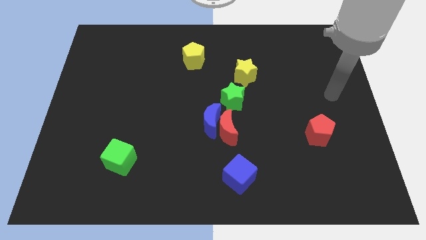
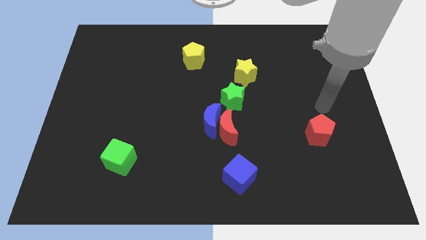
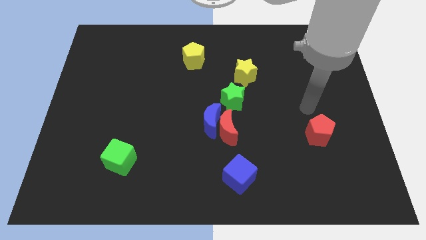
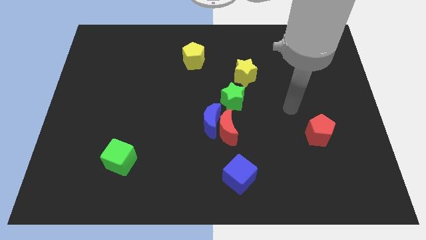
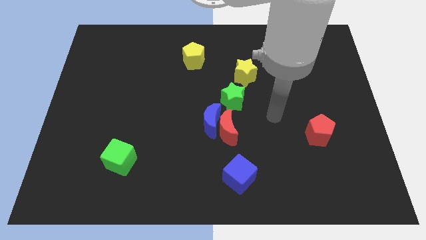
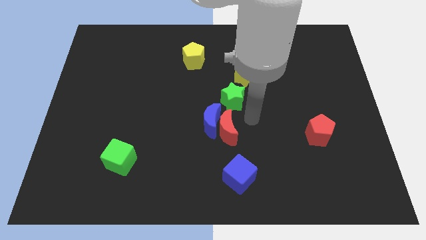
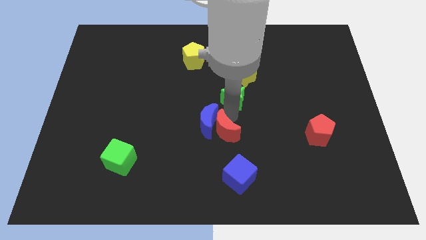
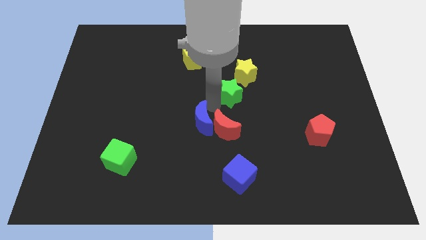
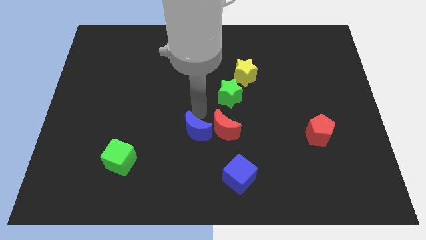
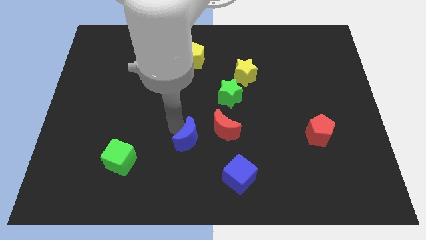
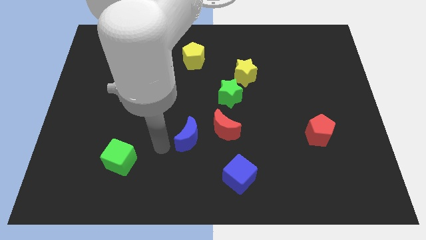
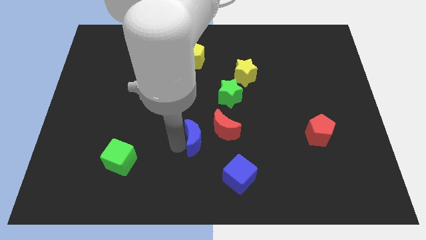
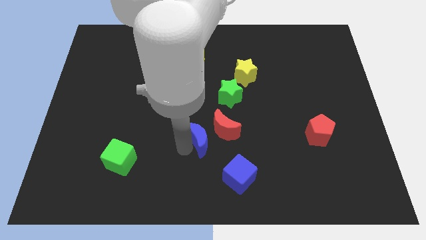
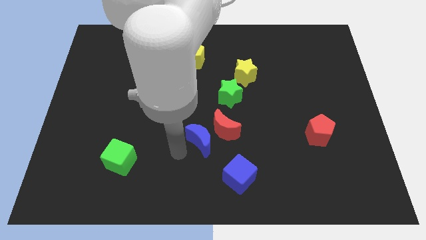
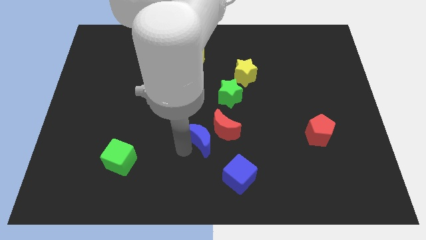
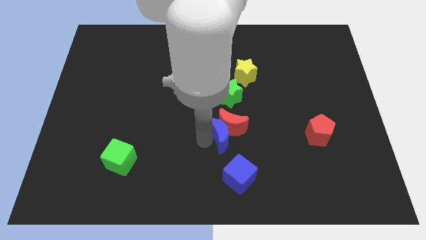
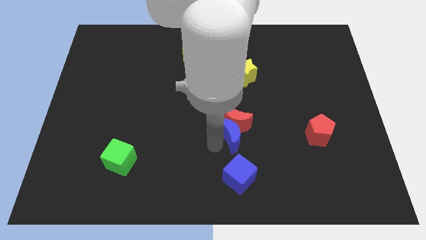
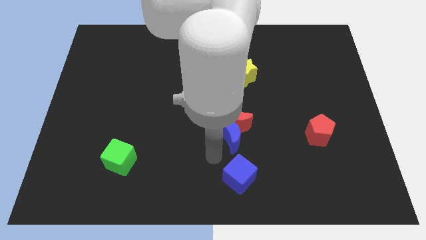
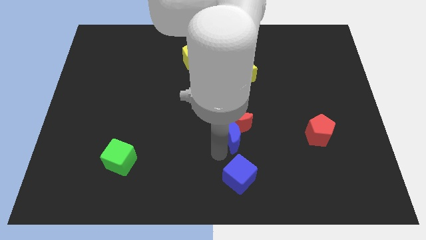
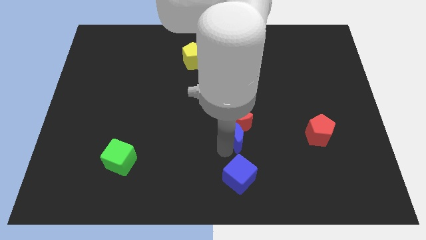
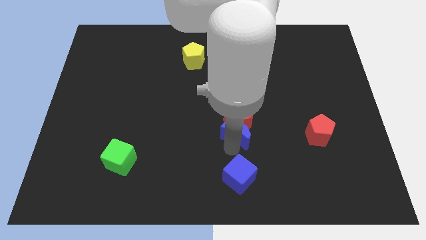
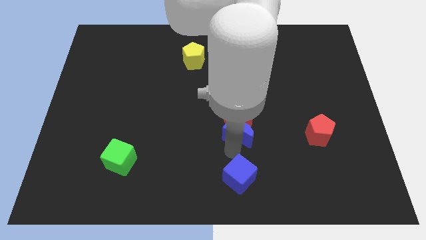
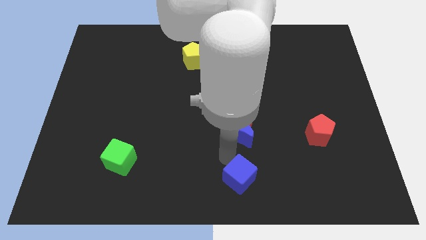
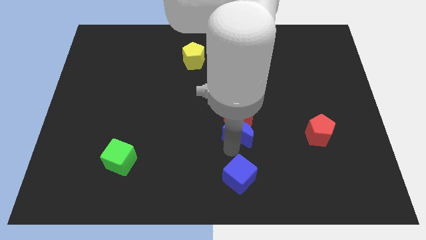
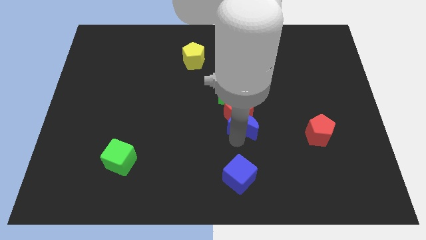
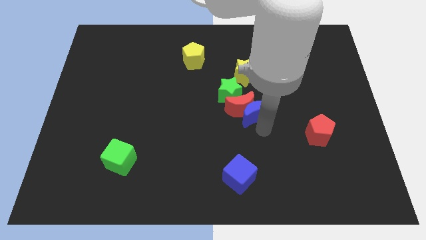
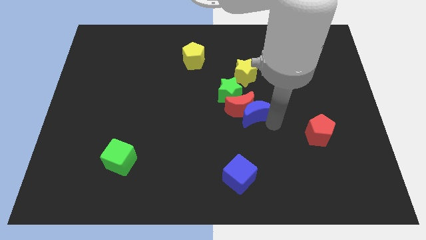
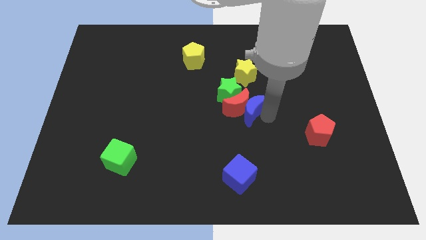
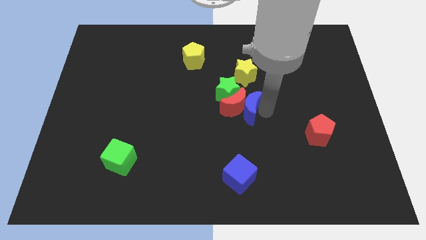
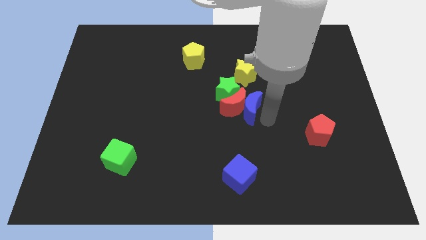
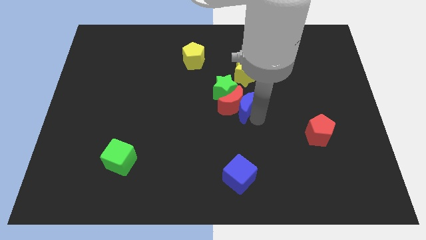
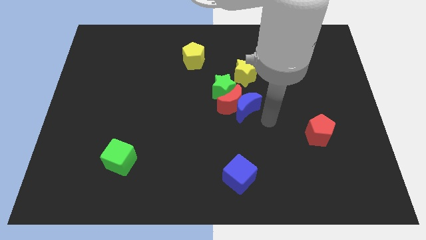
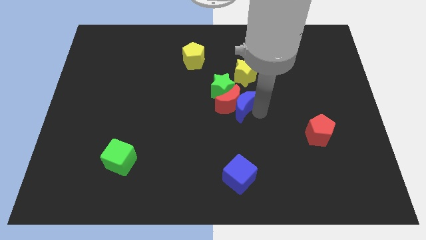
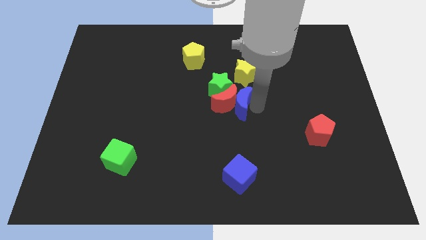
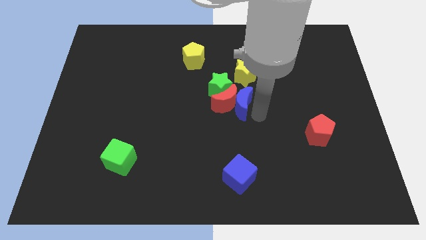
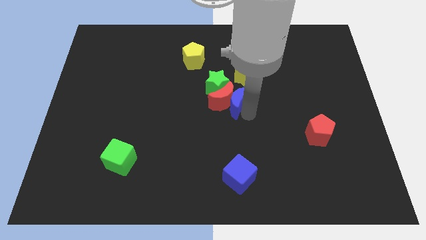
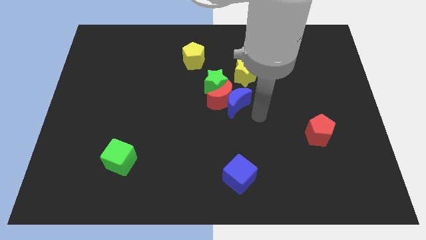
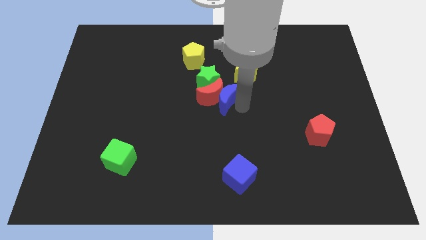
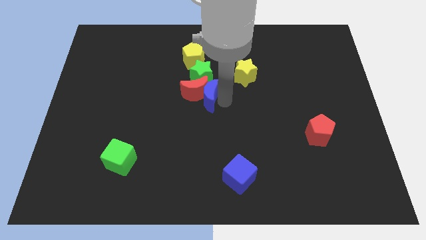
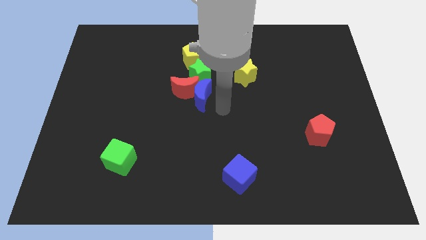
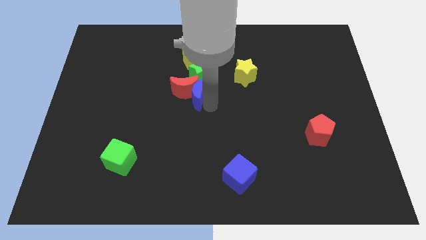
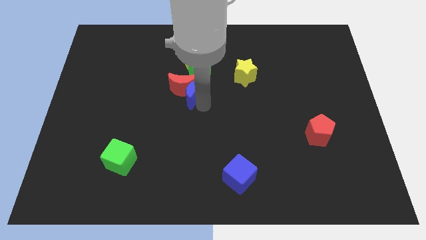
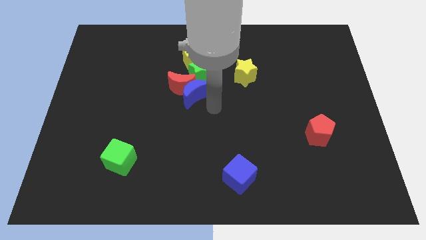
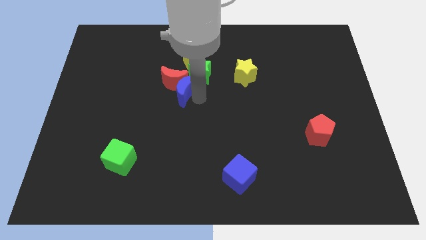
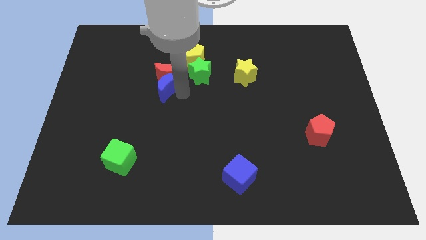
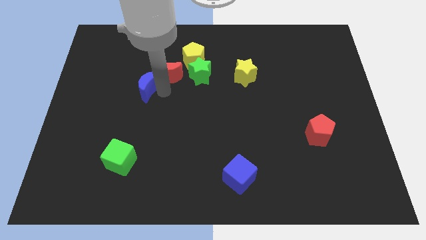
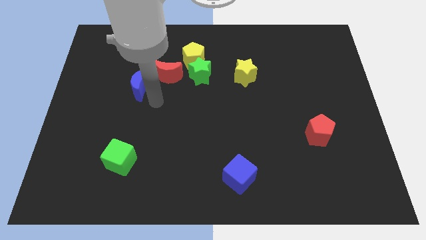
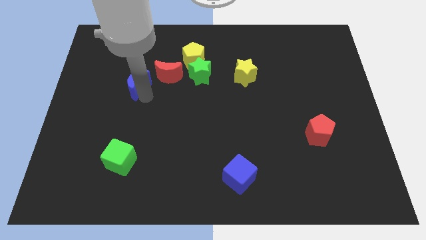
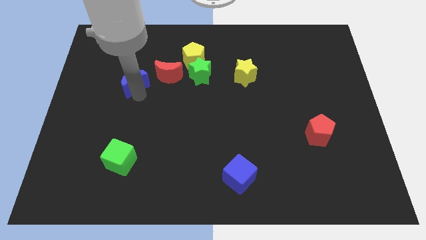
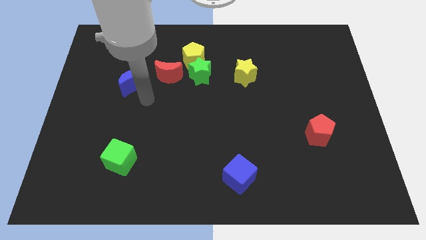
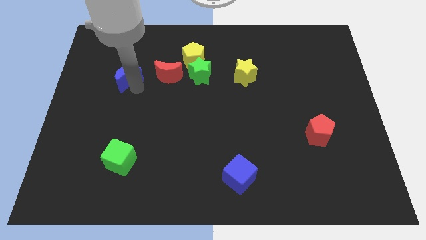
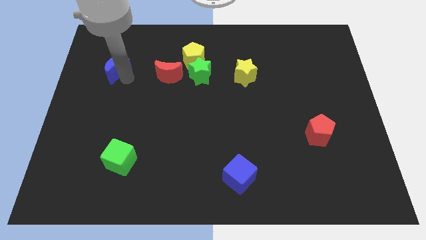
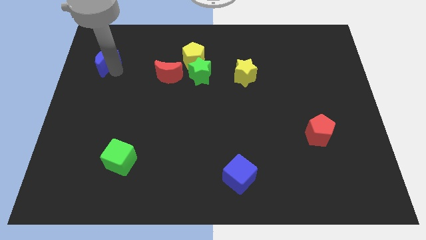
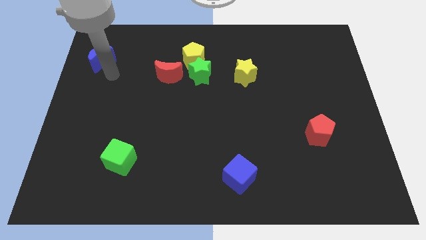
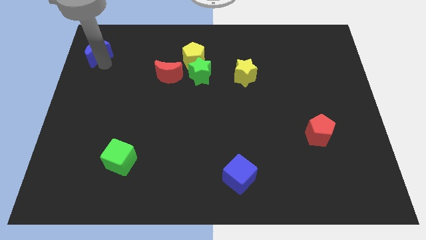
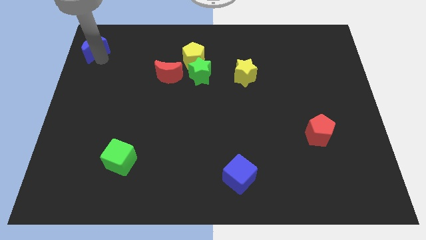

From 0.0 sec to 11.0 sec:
move the blue moon to the upper left corner

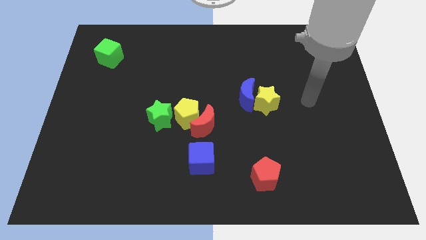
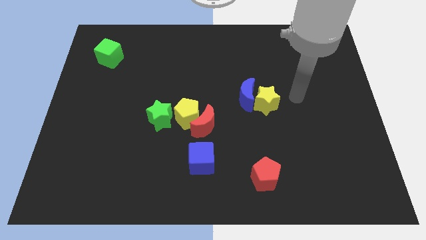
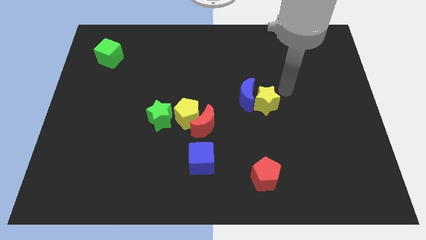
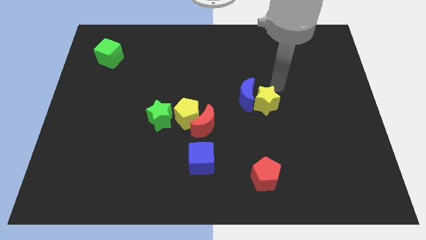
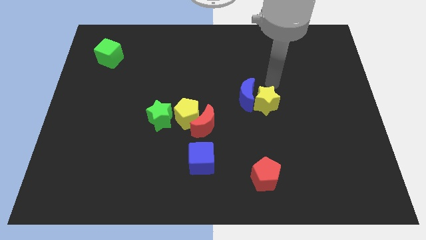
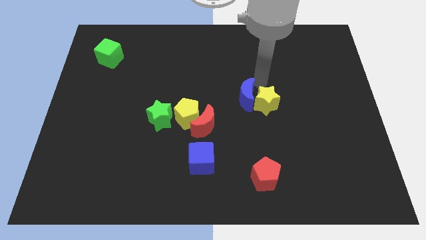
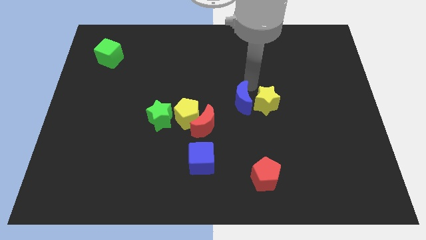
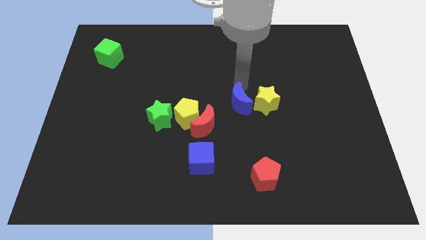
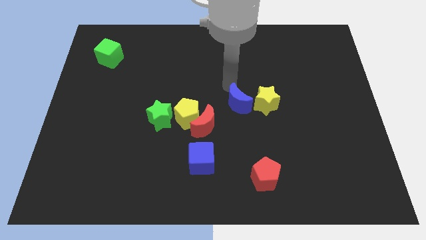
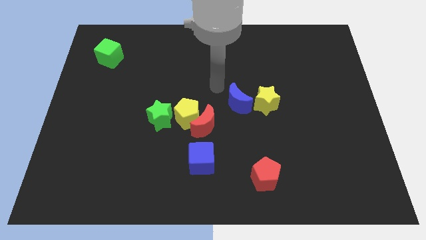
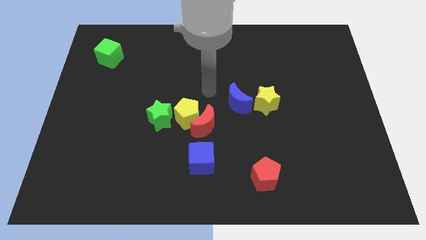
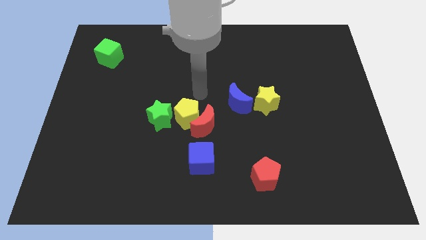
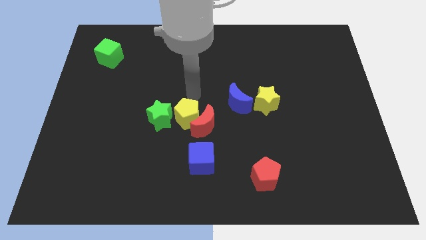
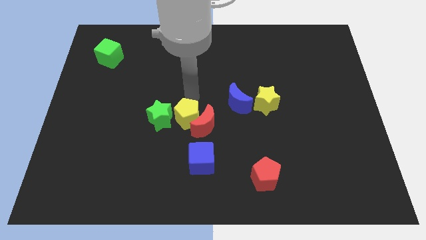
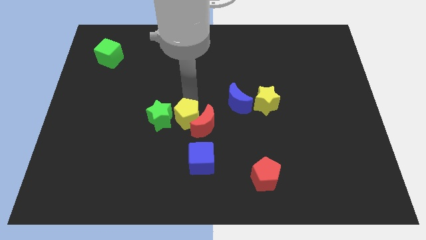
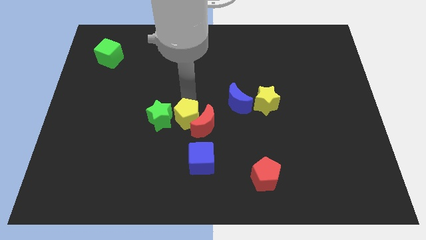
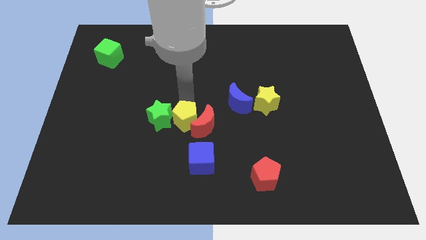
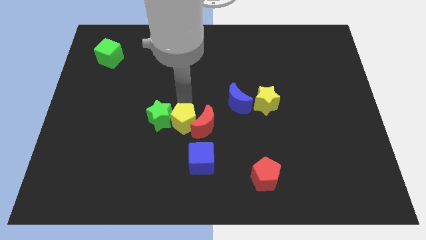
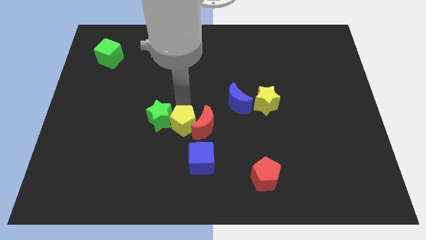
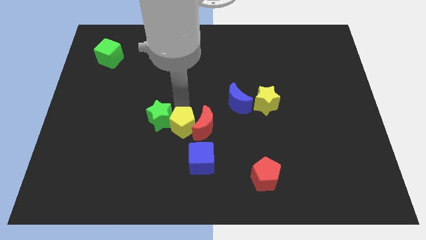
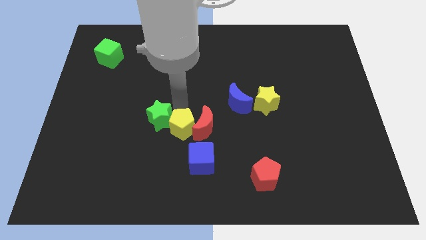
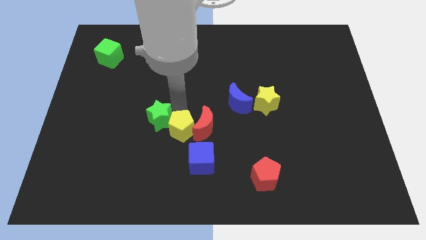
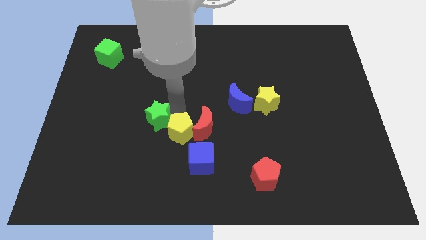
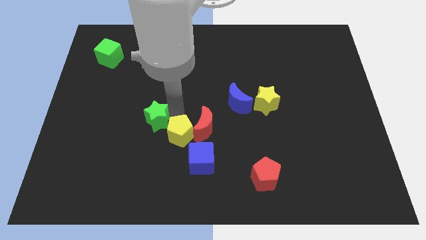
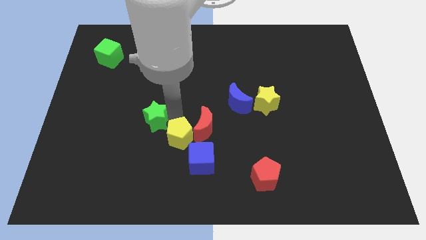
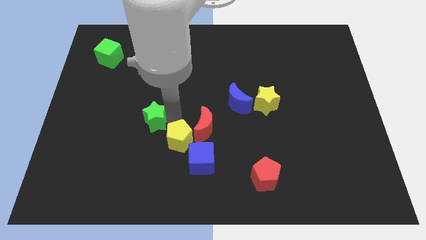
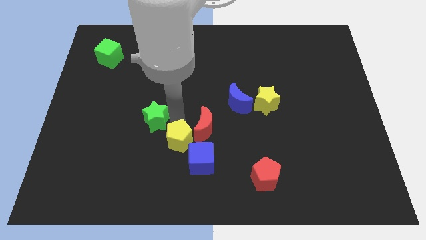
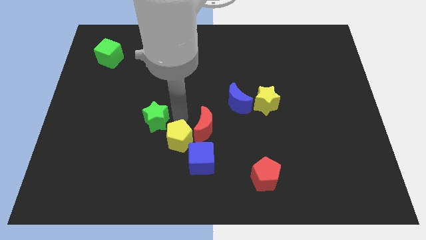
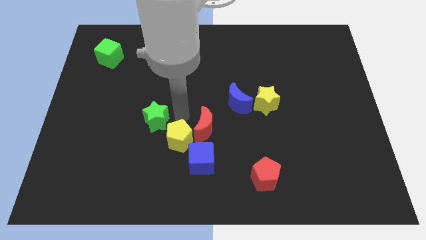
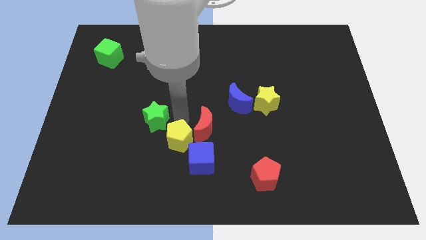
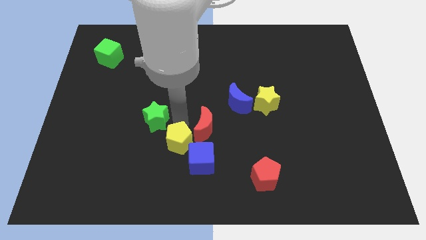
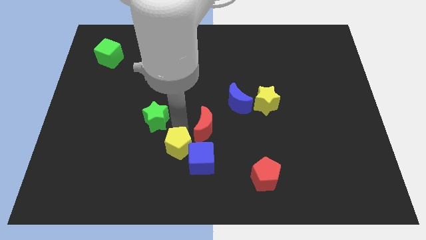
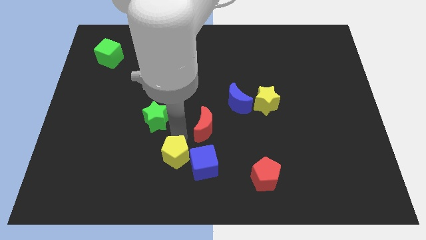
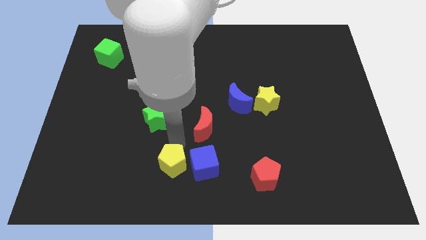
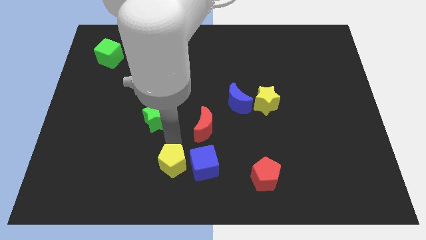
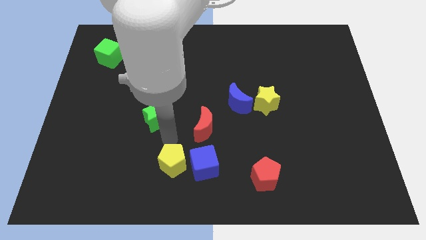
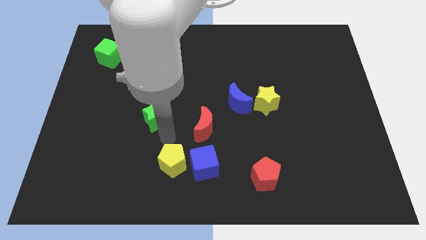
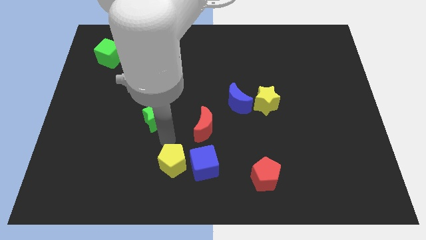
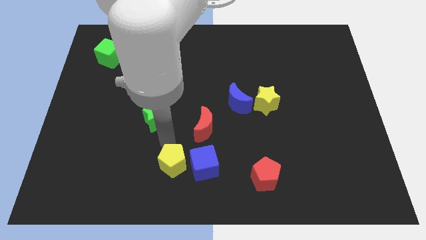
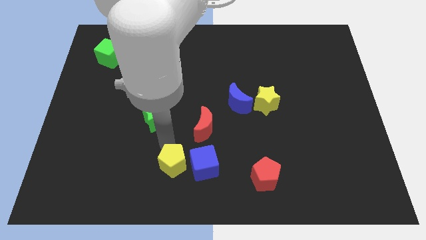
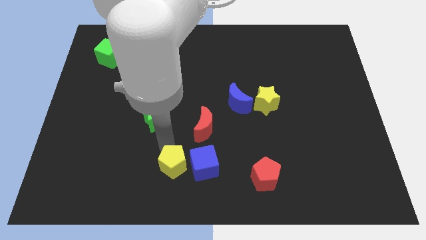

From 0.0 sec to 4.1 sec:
slide the yellow pentagon to the bottom side
